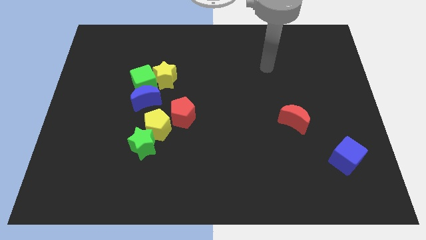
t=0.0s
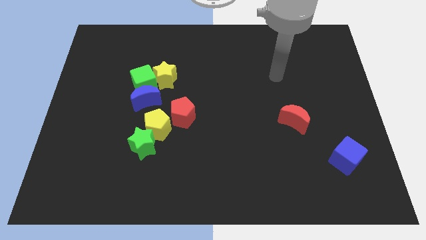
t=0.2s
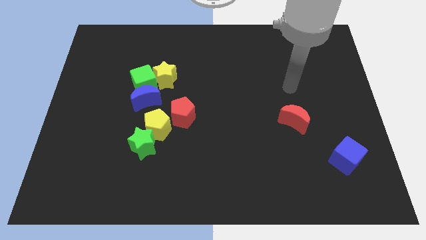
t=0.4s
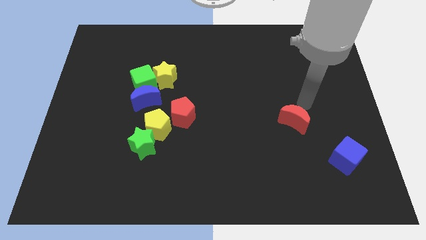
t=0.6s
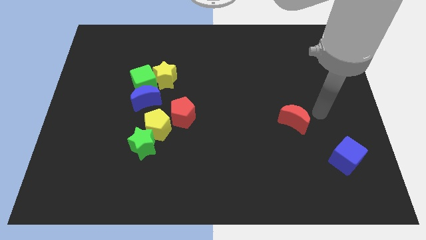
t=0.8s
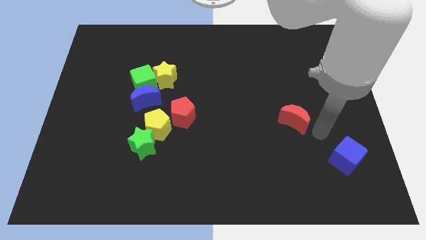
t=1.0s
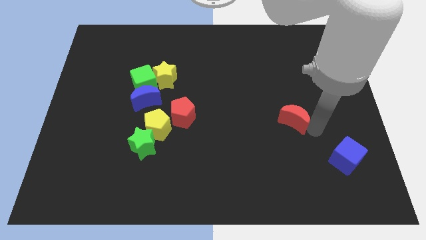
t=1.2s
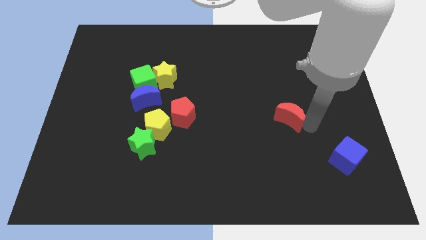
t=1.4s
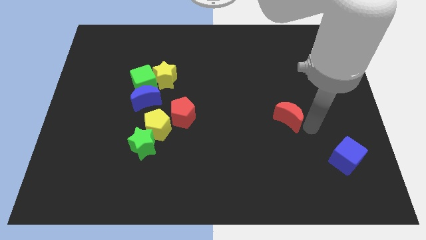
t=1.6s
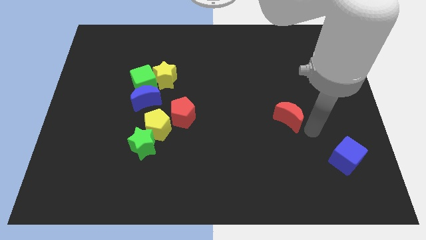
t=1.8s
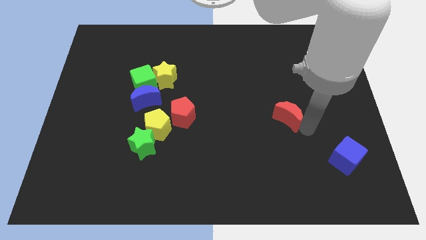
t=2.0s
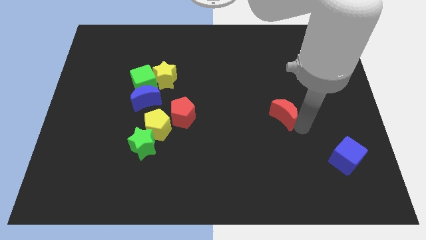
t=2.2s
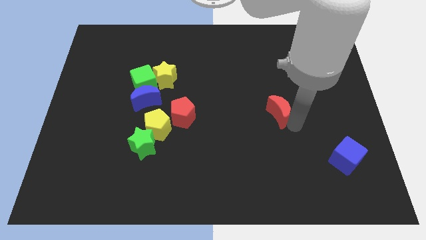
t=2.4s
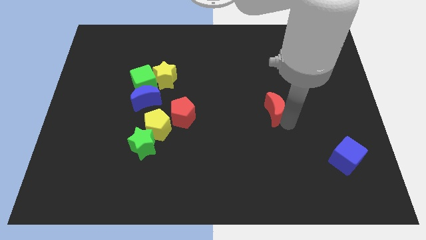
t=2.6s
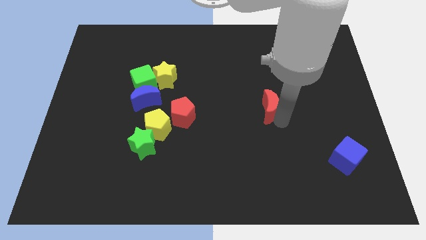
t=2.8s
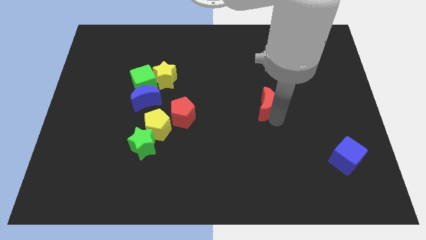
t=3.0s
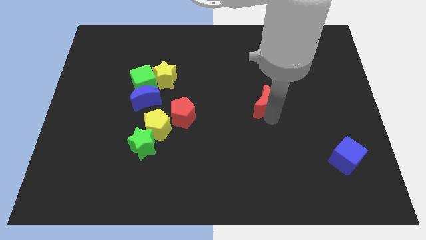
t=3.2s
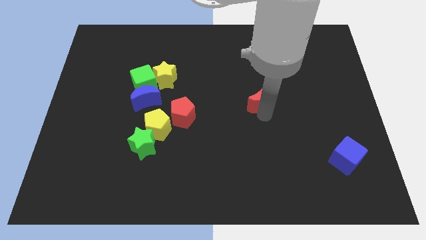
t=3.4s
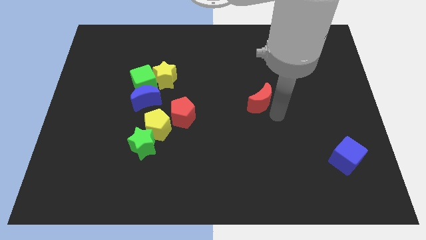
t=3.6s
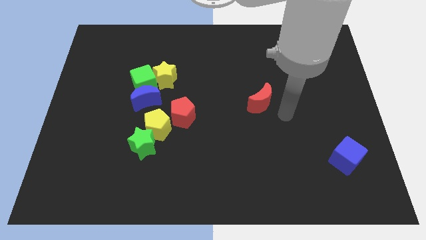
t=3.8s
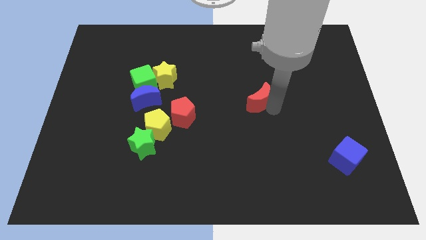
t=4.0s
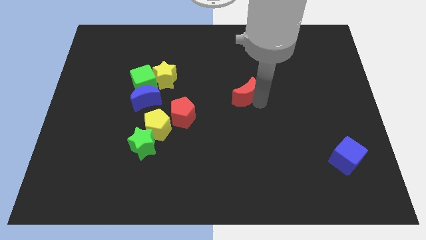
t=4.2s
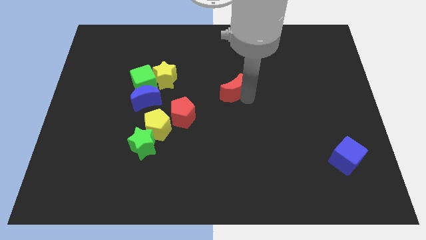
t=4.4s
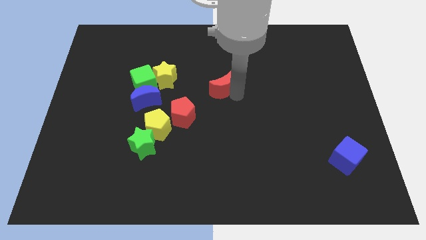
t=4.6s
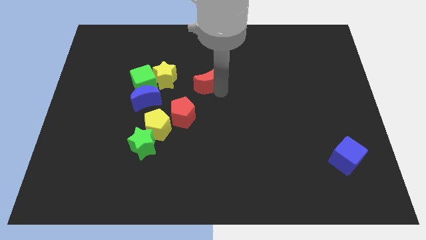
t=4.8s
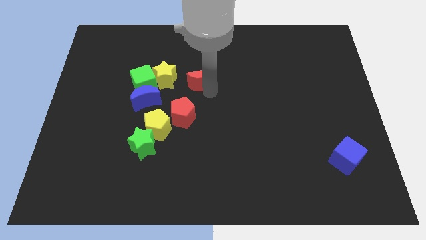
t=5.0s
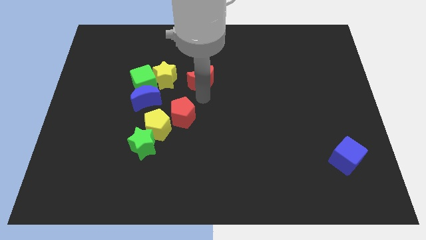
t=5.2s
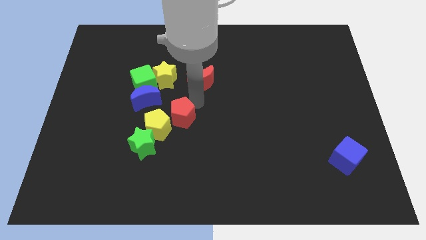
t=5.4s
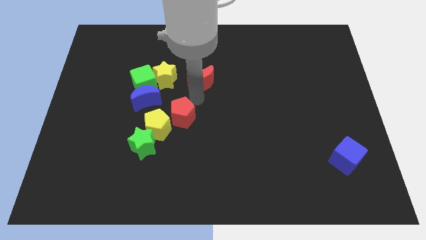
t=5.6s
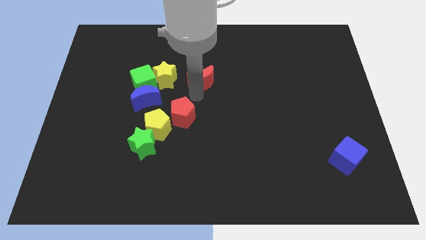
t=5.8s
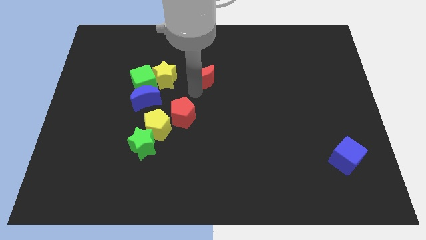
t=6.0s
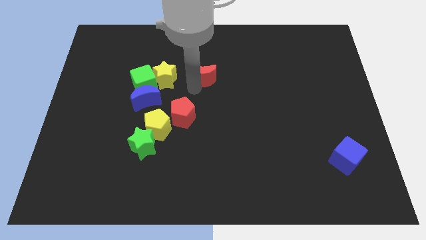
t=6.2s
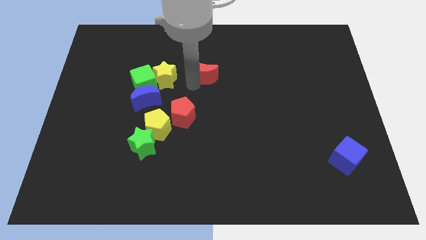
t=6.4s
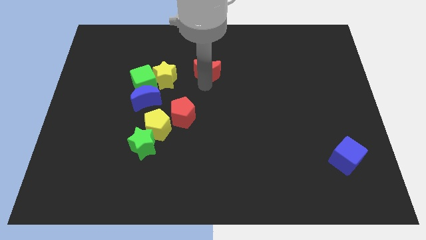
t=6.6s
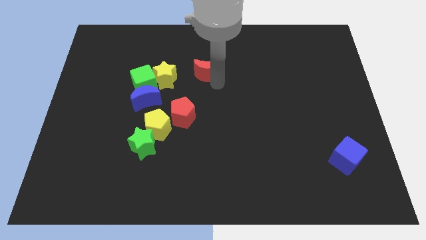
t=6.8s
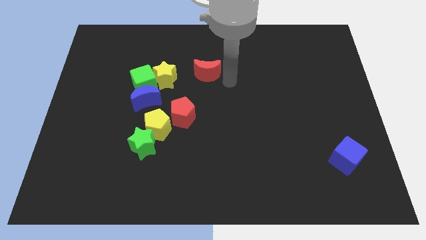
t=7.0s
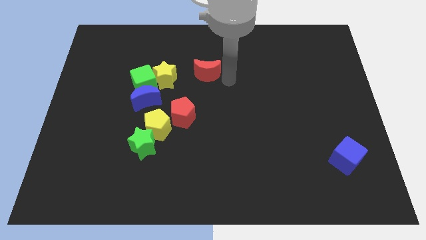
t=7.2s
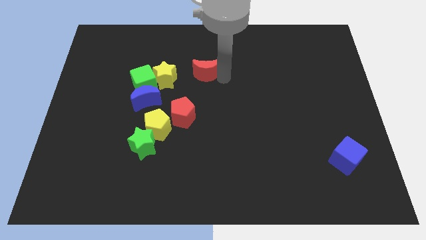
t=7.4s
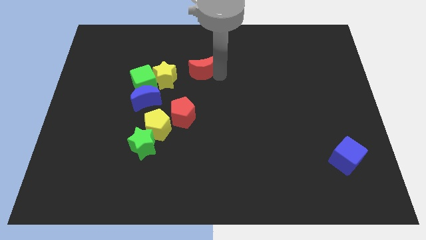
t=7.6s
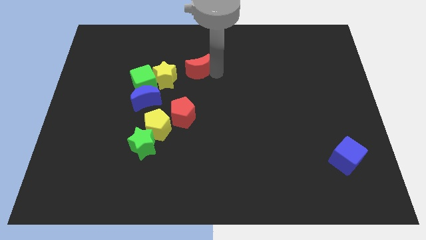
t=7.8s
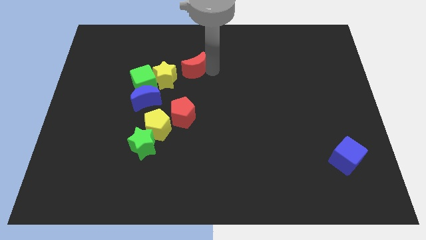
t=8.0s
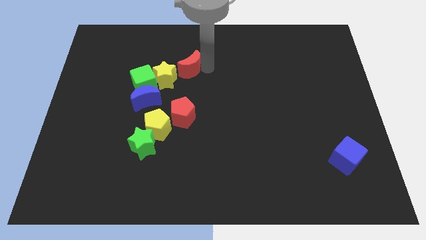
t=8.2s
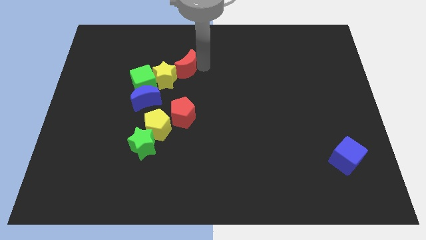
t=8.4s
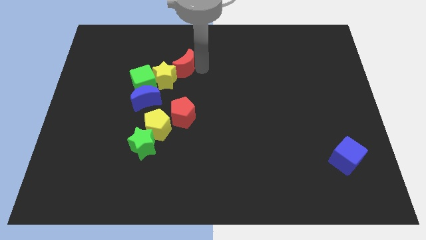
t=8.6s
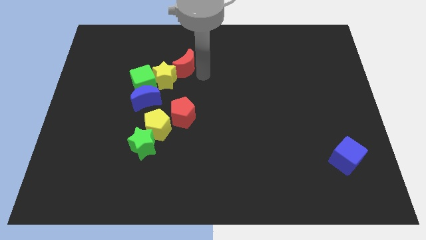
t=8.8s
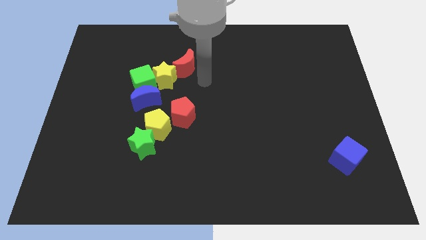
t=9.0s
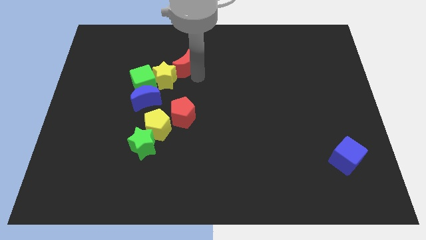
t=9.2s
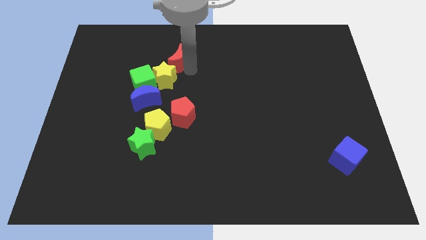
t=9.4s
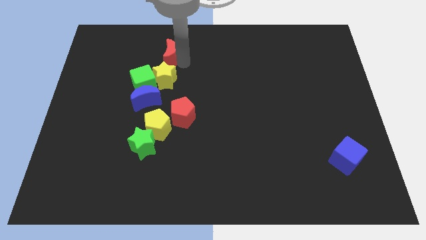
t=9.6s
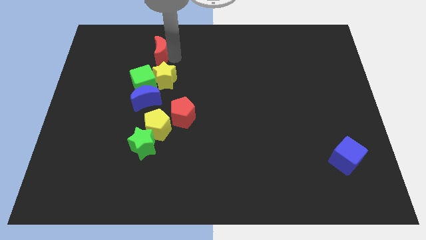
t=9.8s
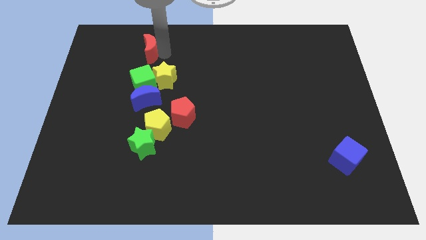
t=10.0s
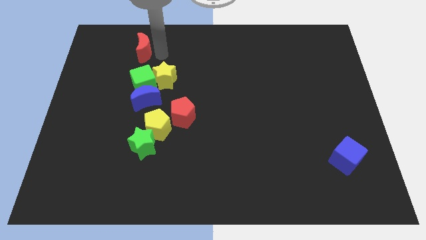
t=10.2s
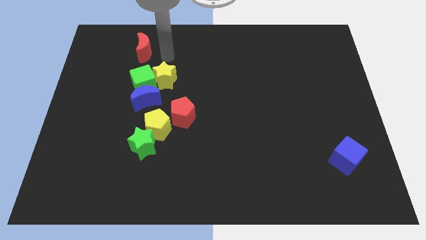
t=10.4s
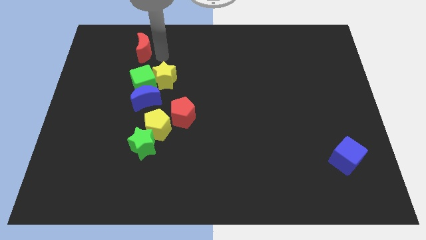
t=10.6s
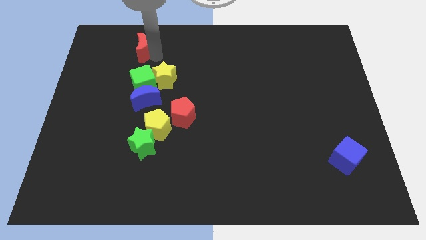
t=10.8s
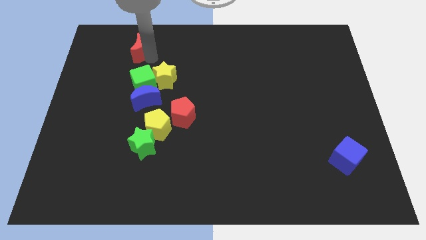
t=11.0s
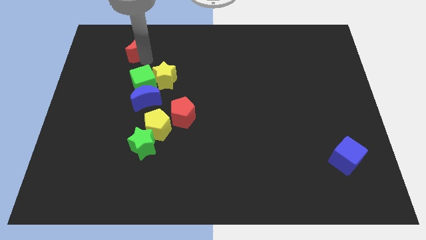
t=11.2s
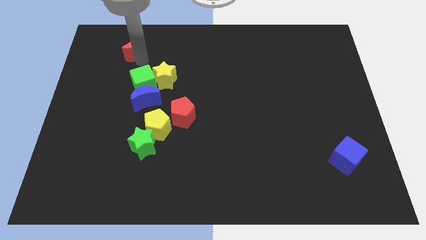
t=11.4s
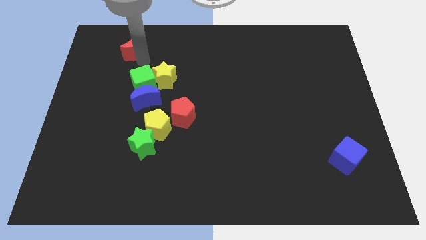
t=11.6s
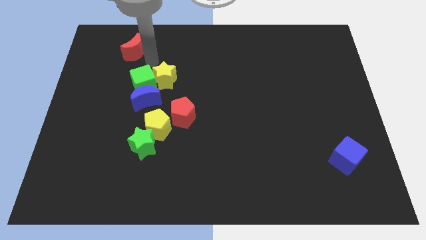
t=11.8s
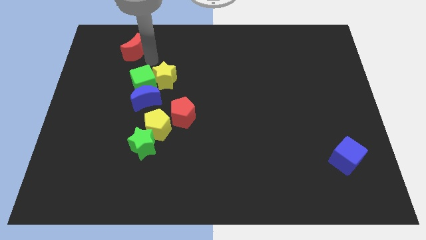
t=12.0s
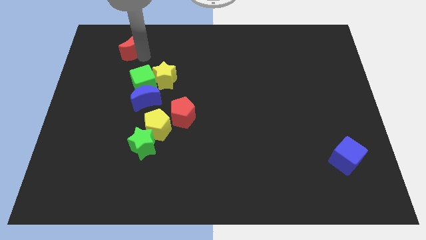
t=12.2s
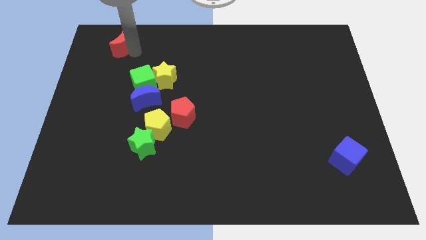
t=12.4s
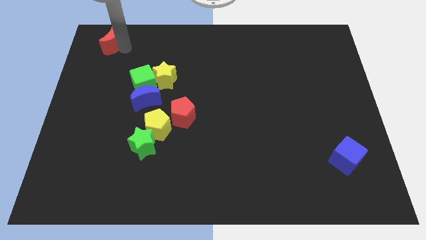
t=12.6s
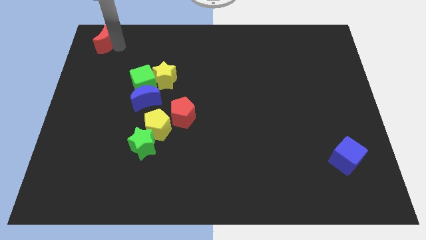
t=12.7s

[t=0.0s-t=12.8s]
push the red moon to the top left of the board

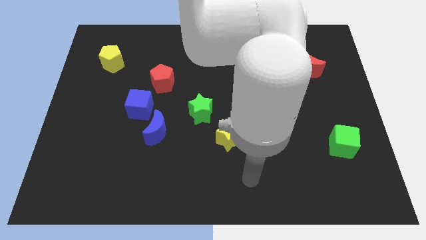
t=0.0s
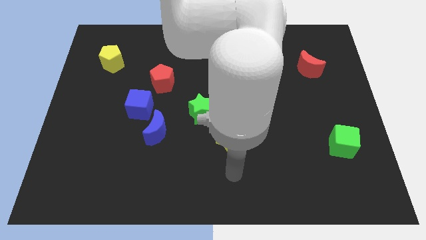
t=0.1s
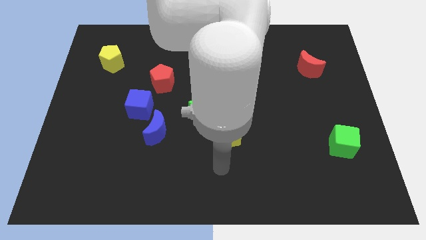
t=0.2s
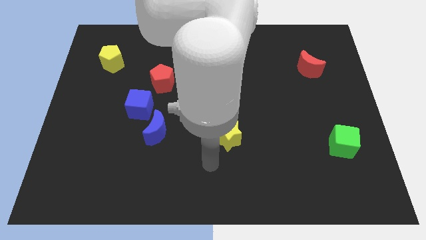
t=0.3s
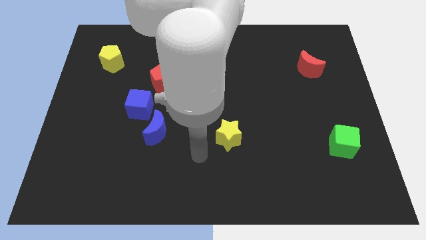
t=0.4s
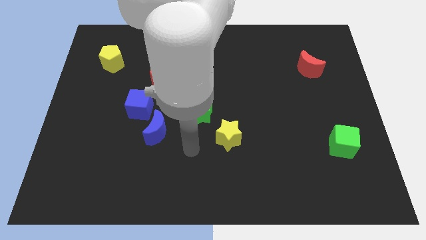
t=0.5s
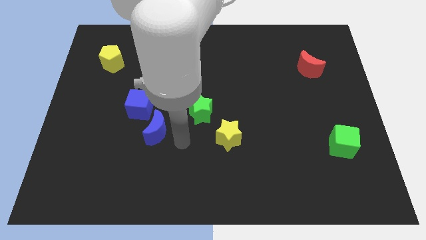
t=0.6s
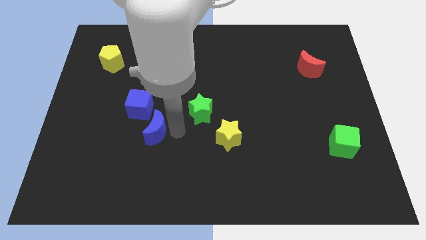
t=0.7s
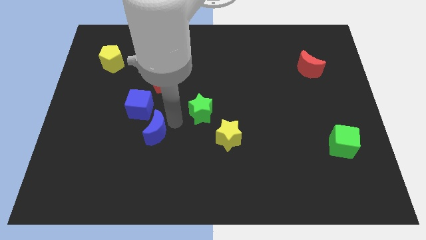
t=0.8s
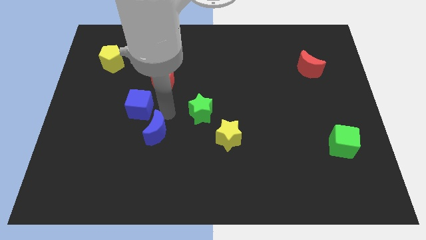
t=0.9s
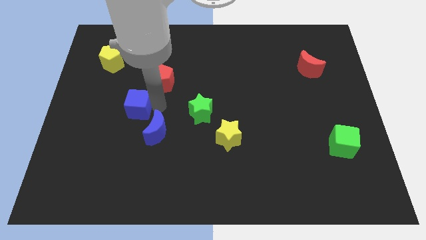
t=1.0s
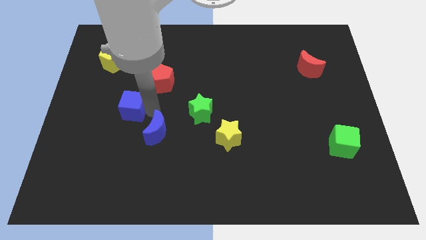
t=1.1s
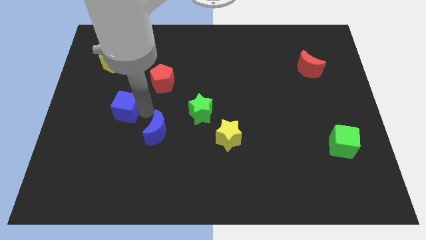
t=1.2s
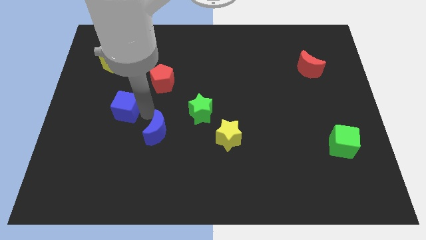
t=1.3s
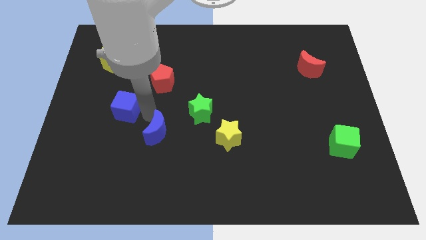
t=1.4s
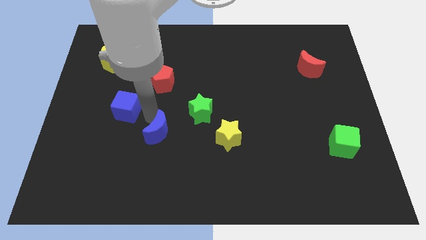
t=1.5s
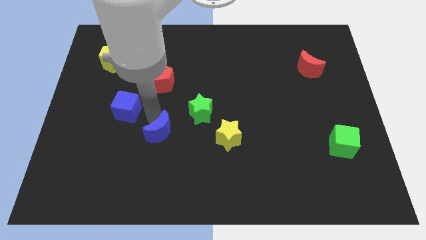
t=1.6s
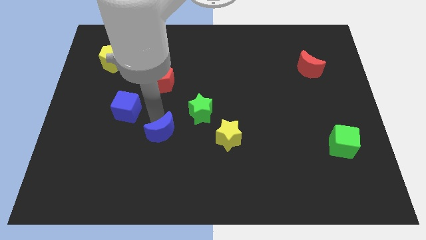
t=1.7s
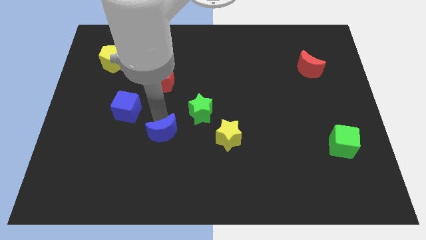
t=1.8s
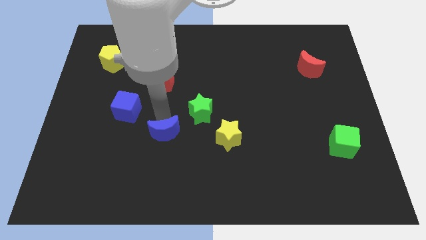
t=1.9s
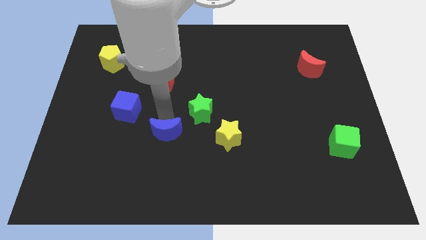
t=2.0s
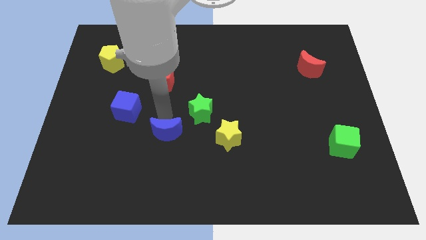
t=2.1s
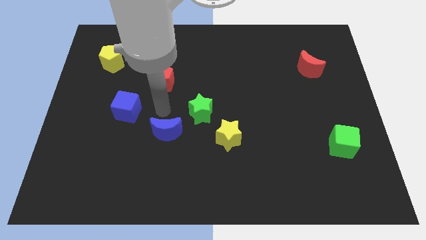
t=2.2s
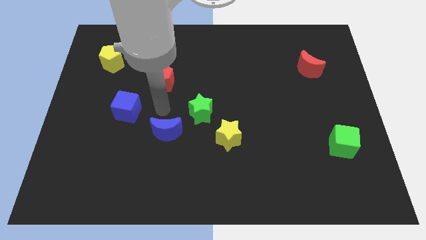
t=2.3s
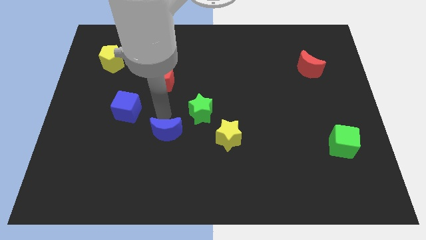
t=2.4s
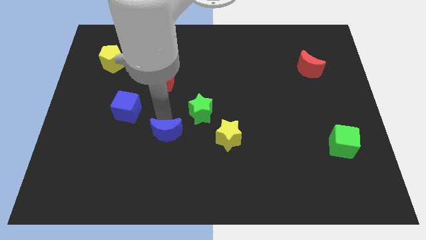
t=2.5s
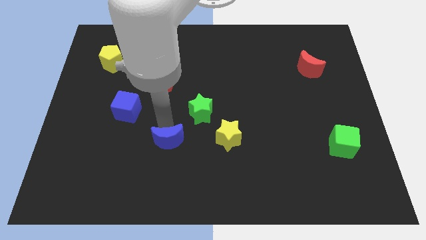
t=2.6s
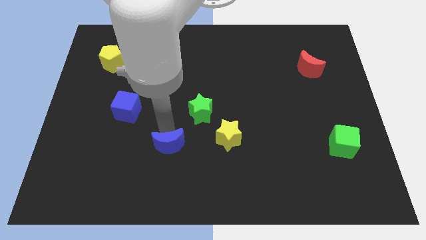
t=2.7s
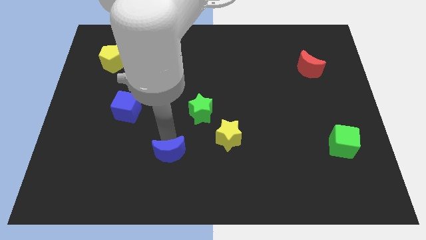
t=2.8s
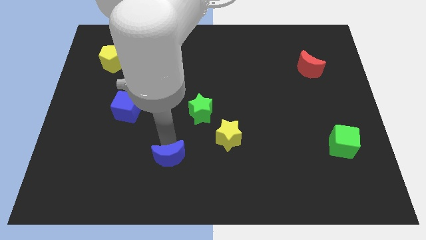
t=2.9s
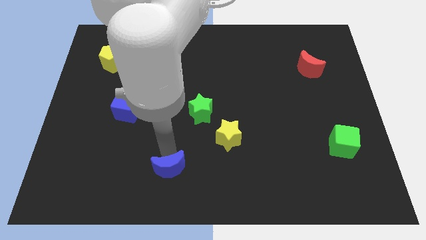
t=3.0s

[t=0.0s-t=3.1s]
move the blue moon to the bottom
